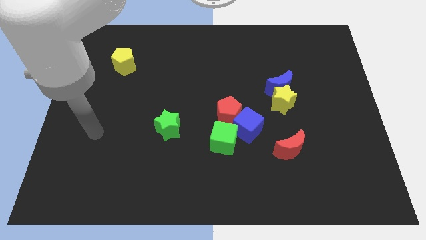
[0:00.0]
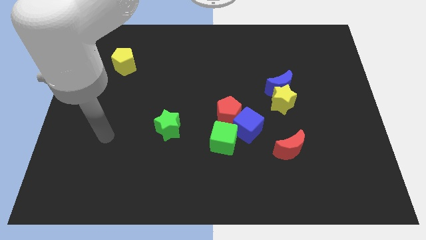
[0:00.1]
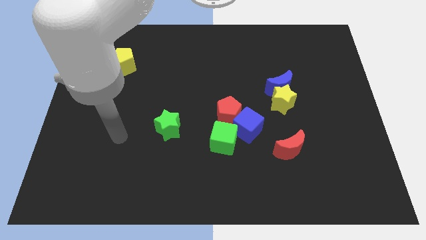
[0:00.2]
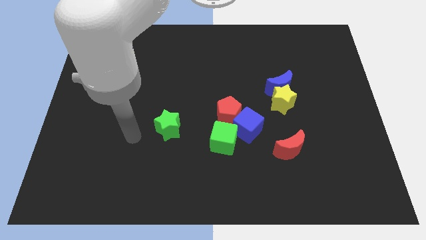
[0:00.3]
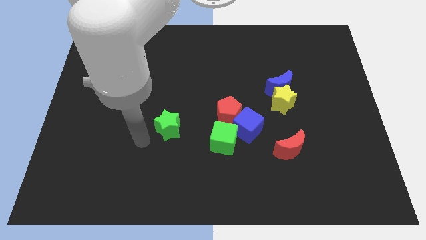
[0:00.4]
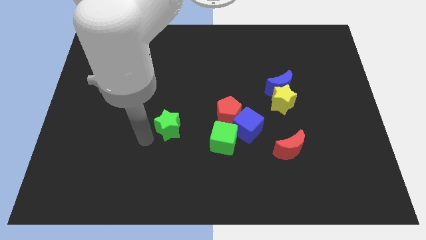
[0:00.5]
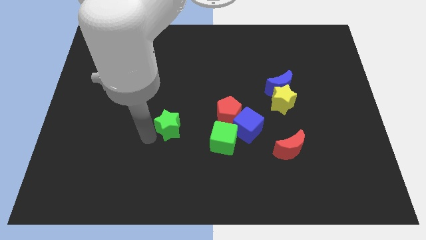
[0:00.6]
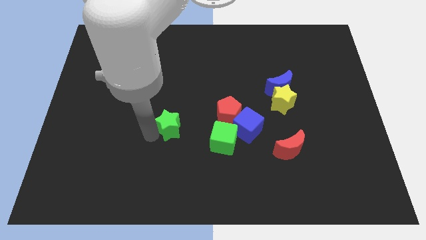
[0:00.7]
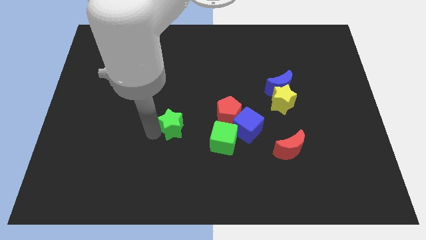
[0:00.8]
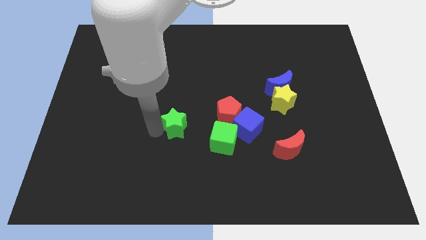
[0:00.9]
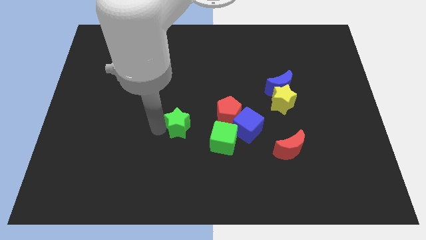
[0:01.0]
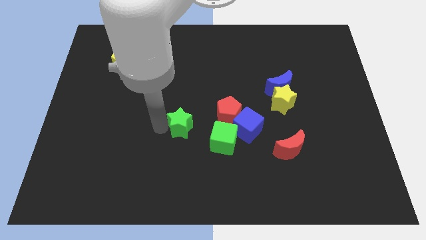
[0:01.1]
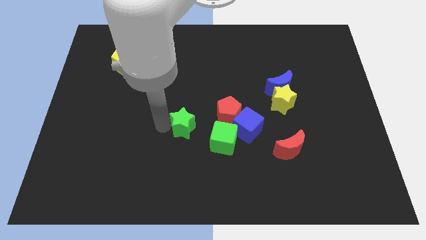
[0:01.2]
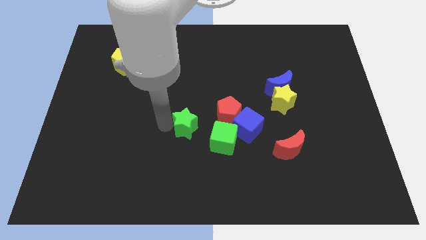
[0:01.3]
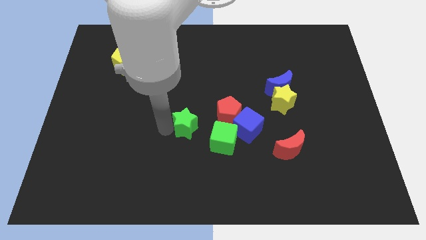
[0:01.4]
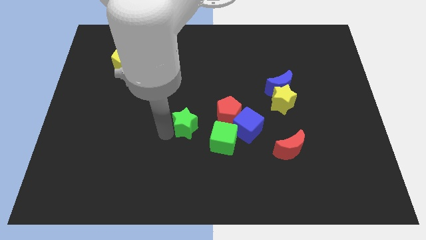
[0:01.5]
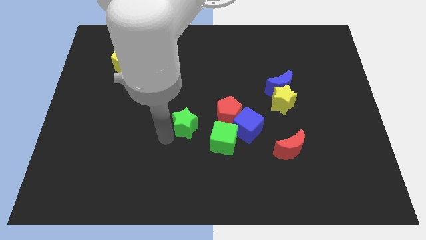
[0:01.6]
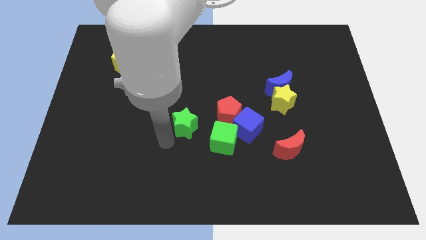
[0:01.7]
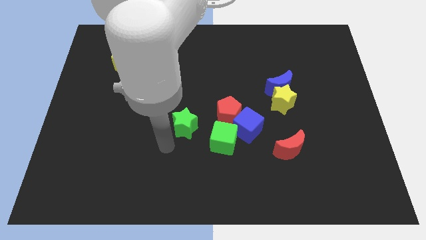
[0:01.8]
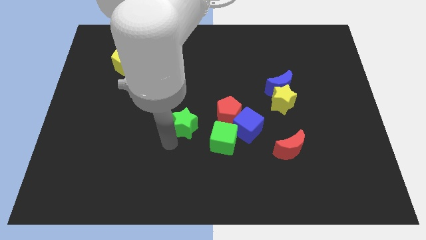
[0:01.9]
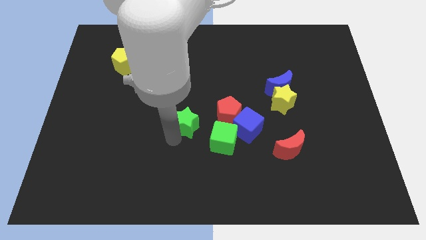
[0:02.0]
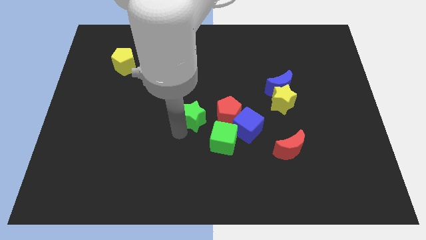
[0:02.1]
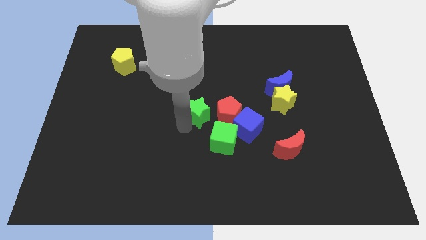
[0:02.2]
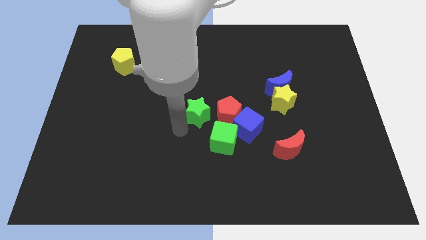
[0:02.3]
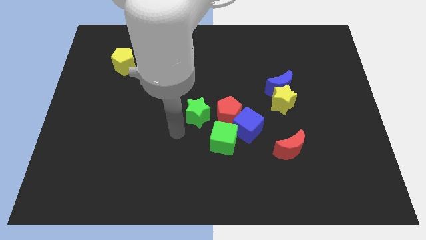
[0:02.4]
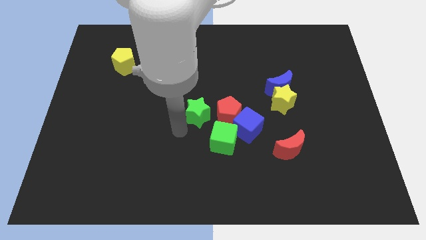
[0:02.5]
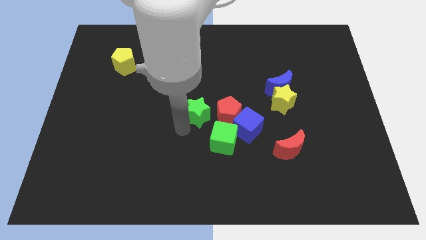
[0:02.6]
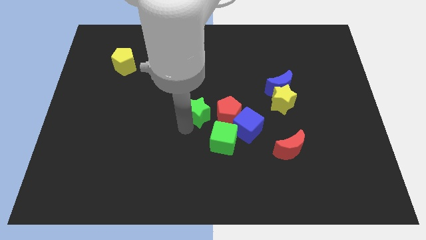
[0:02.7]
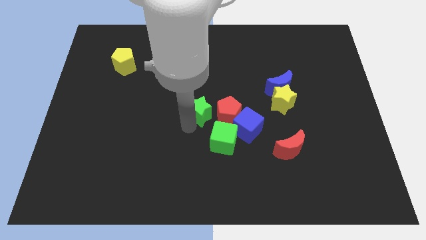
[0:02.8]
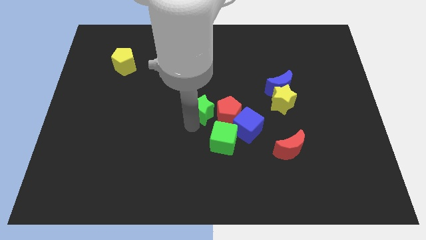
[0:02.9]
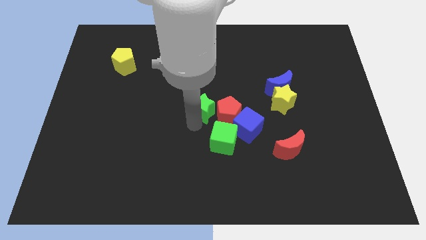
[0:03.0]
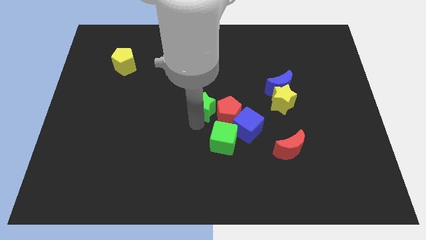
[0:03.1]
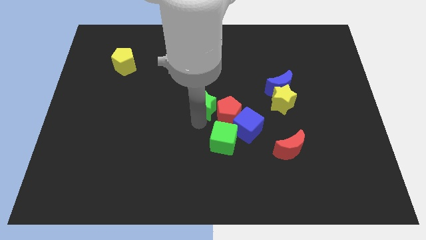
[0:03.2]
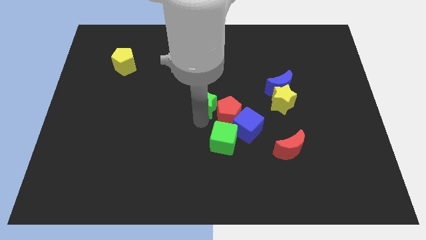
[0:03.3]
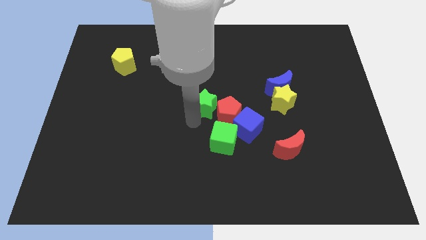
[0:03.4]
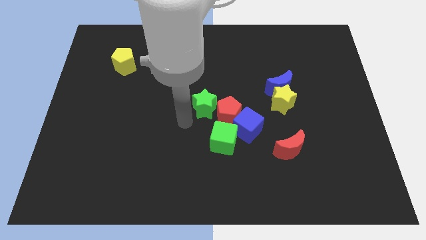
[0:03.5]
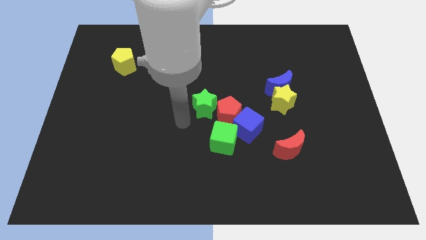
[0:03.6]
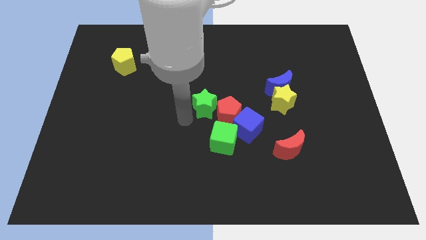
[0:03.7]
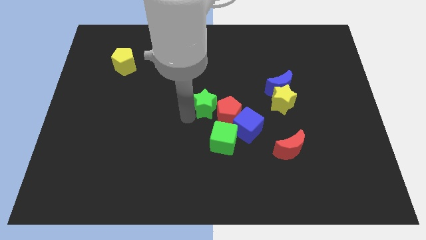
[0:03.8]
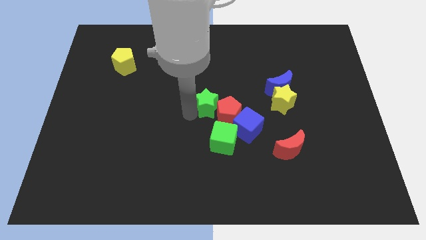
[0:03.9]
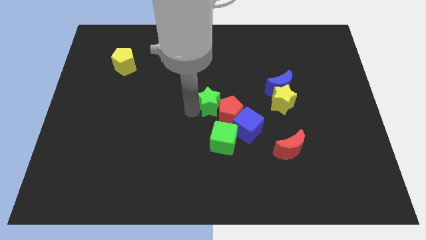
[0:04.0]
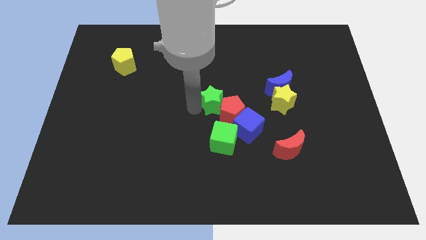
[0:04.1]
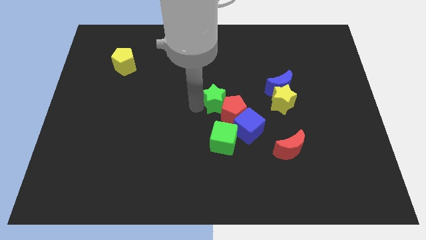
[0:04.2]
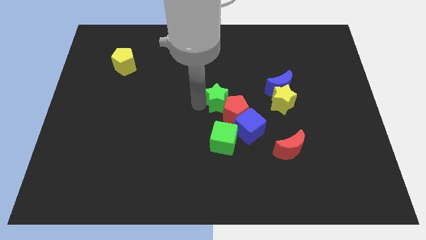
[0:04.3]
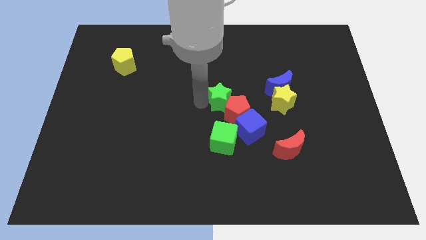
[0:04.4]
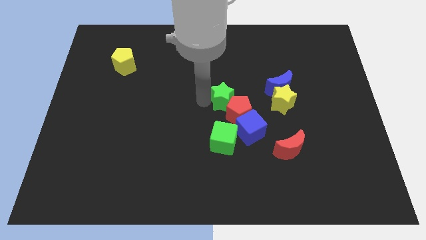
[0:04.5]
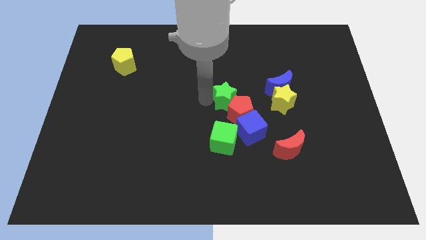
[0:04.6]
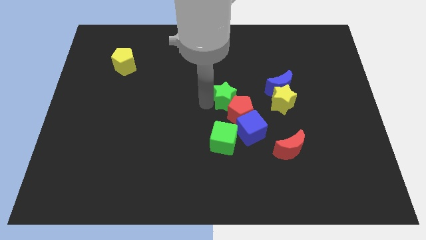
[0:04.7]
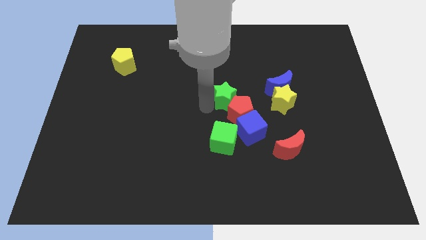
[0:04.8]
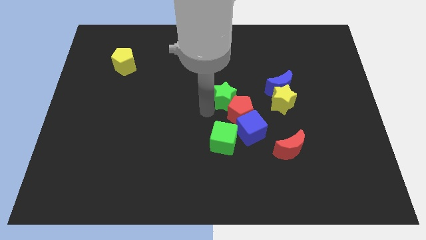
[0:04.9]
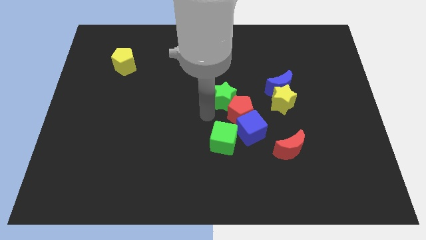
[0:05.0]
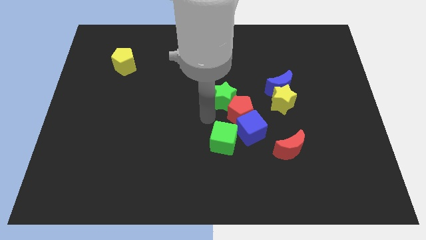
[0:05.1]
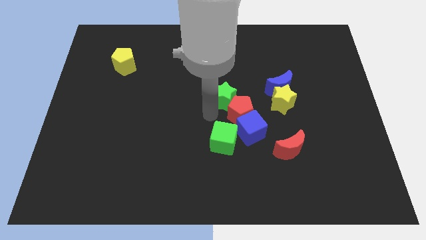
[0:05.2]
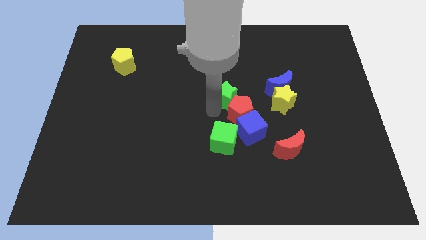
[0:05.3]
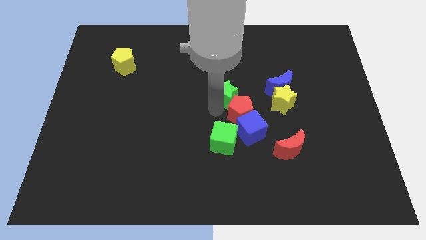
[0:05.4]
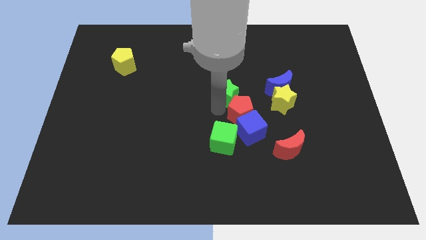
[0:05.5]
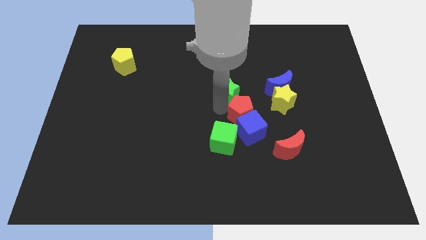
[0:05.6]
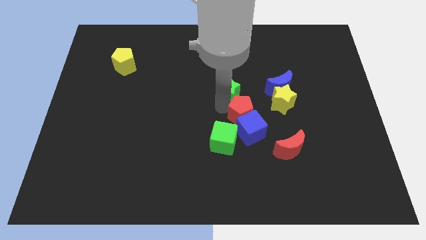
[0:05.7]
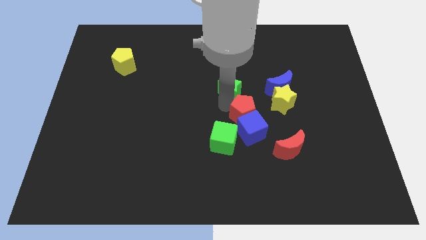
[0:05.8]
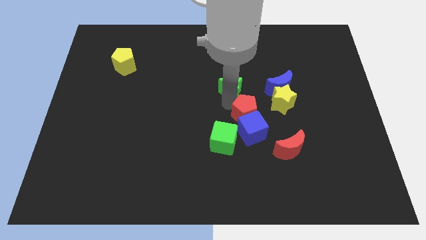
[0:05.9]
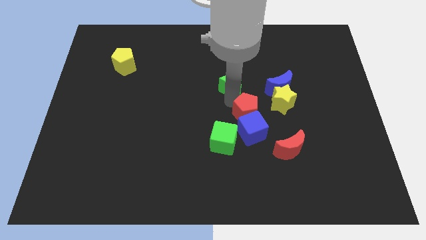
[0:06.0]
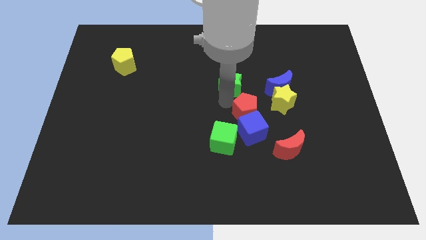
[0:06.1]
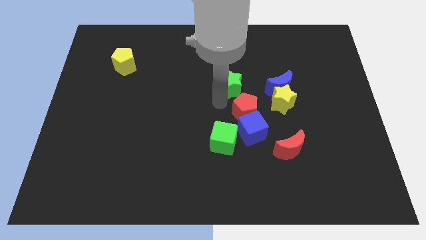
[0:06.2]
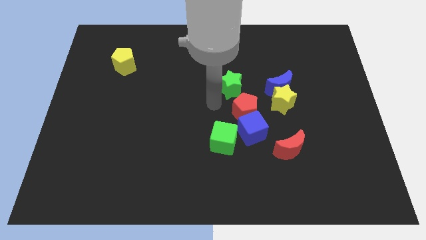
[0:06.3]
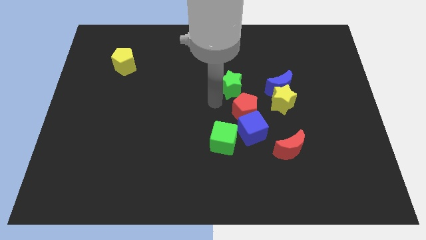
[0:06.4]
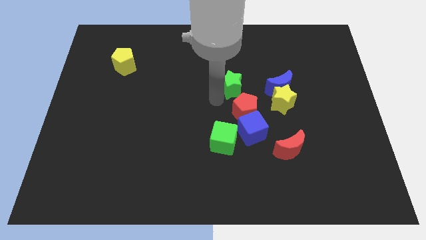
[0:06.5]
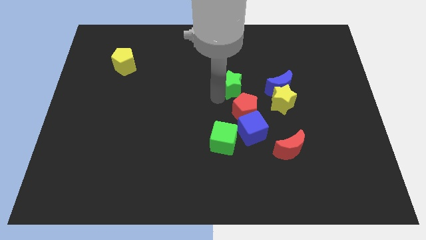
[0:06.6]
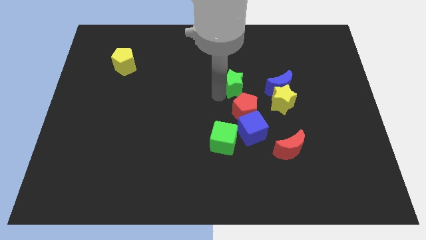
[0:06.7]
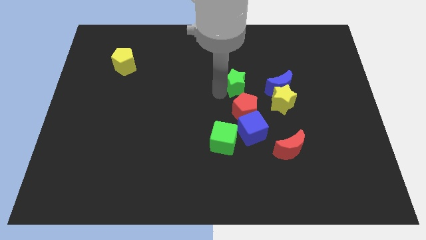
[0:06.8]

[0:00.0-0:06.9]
move the green star diagonally up and to the right

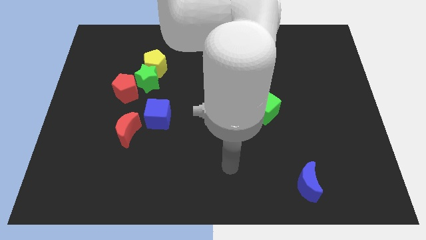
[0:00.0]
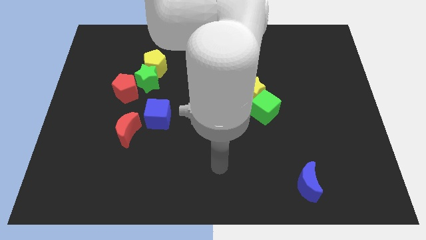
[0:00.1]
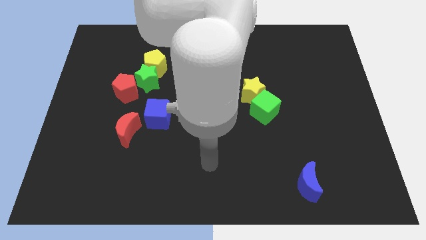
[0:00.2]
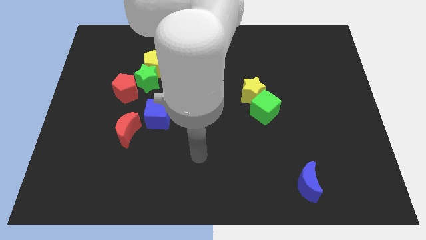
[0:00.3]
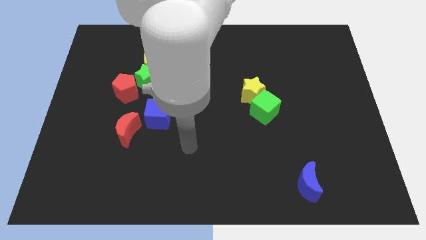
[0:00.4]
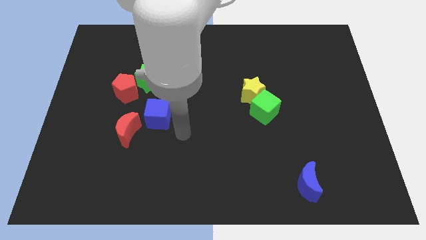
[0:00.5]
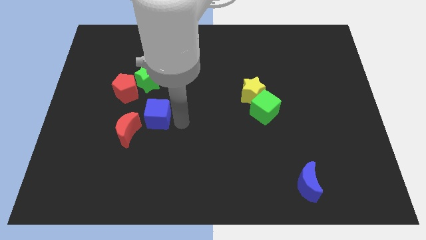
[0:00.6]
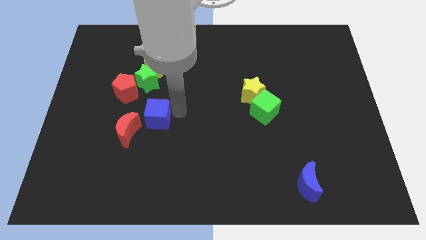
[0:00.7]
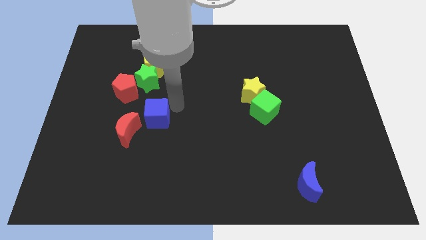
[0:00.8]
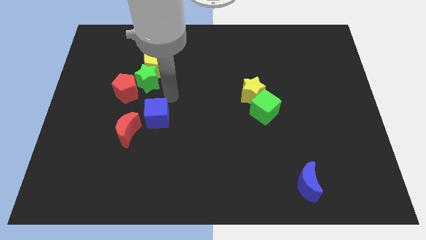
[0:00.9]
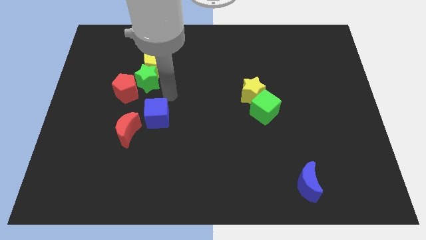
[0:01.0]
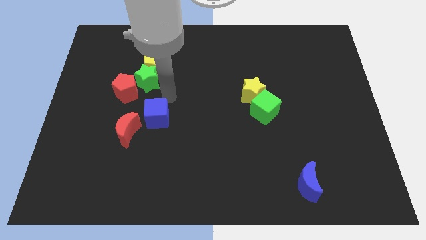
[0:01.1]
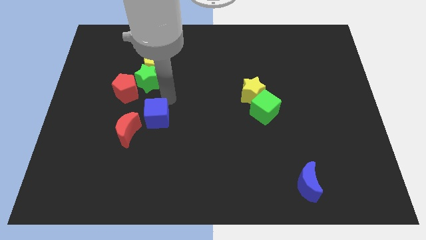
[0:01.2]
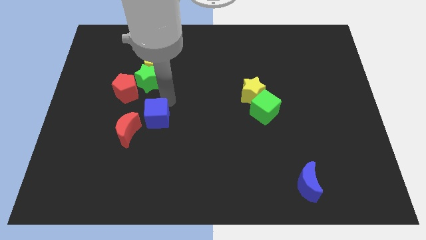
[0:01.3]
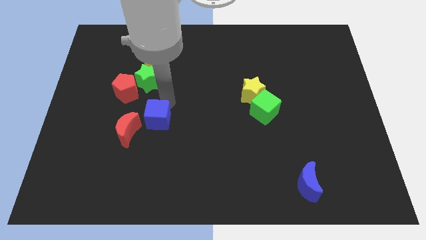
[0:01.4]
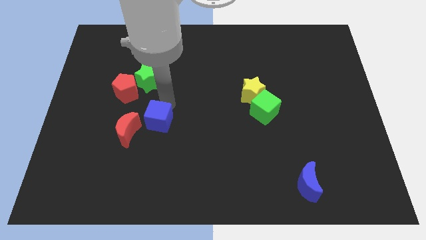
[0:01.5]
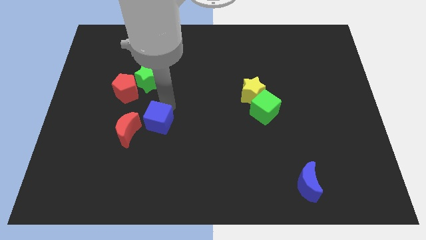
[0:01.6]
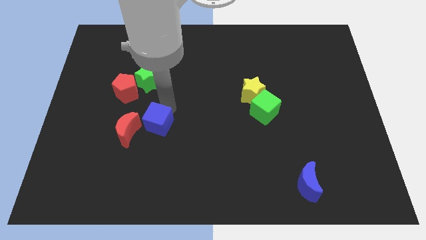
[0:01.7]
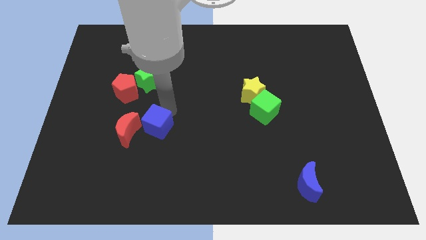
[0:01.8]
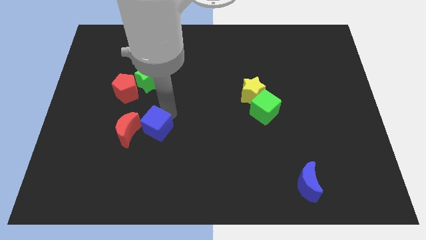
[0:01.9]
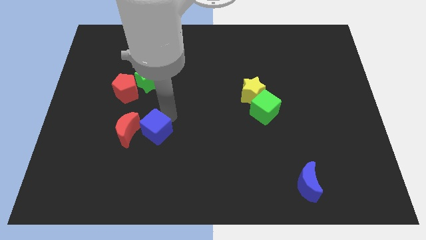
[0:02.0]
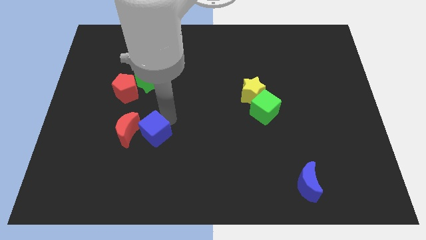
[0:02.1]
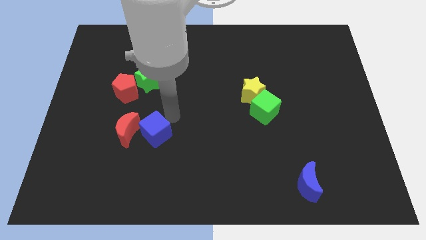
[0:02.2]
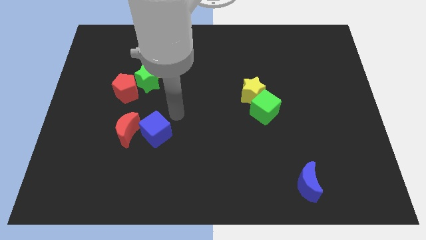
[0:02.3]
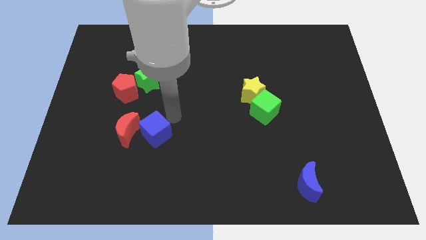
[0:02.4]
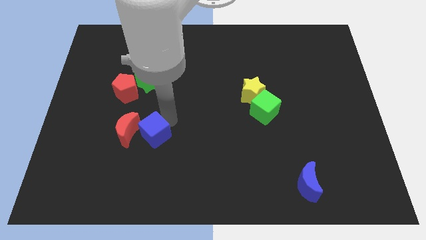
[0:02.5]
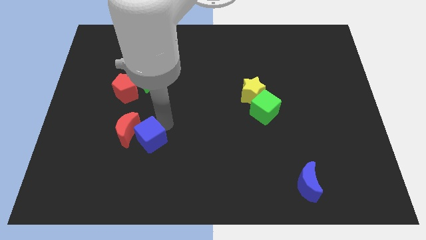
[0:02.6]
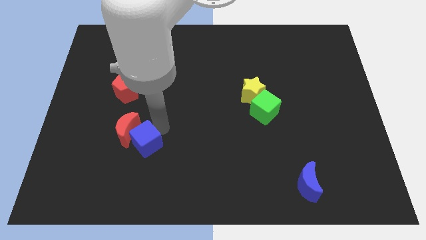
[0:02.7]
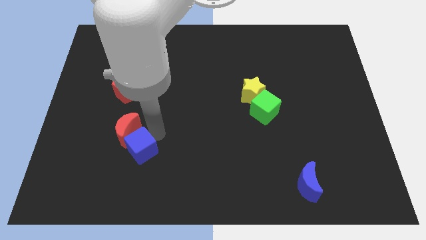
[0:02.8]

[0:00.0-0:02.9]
move the blue cube downwards and then left a bit
